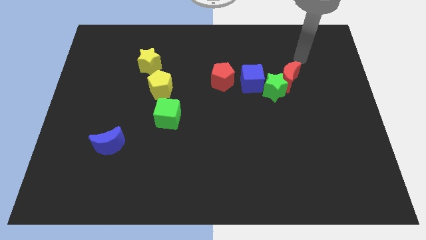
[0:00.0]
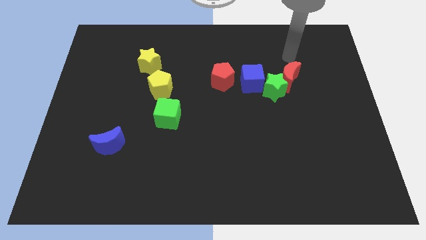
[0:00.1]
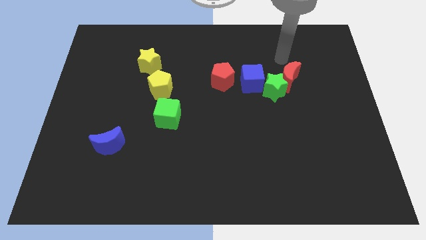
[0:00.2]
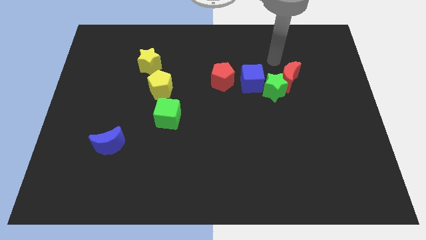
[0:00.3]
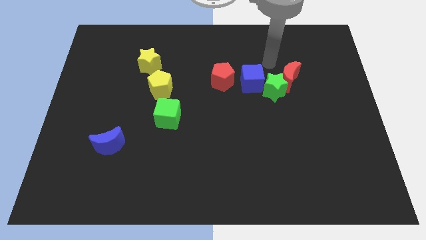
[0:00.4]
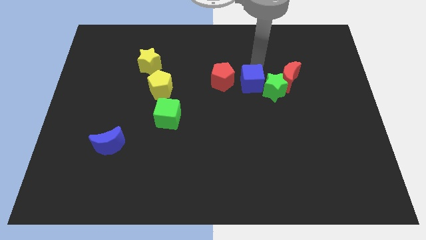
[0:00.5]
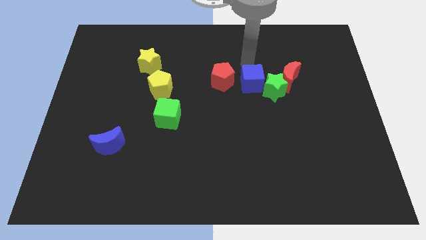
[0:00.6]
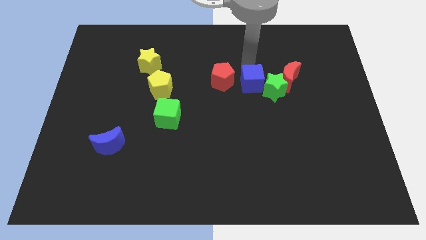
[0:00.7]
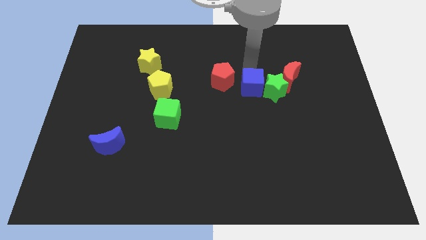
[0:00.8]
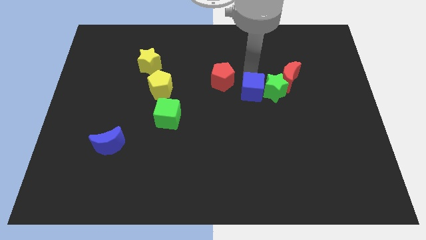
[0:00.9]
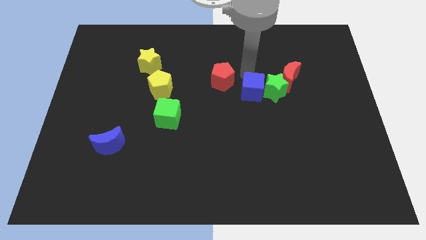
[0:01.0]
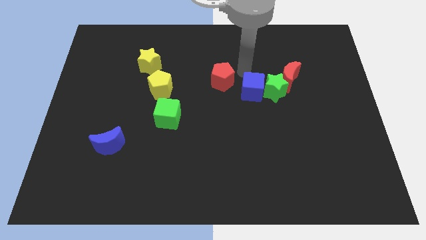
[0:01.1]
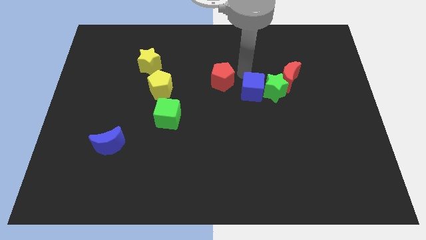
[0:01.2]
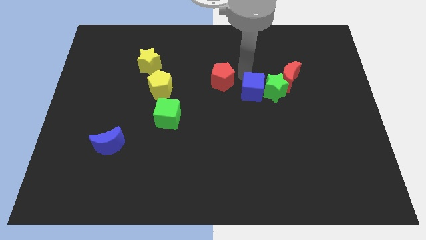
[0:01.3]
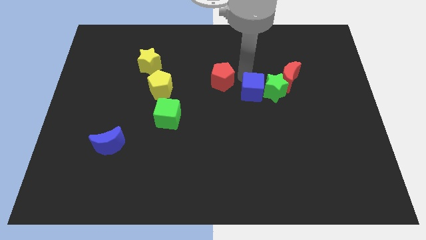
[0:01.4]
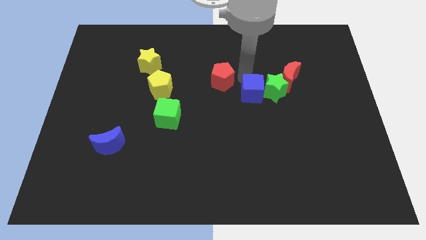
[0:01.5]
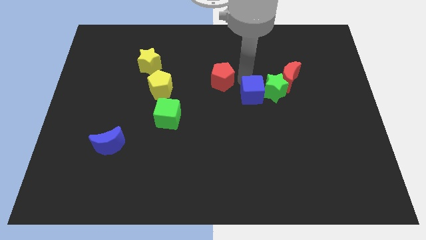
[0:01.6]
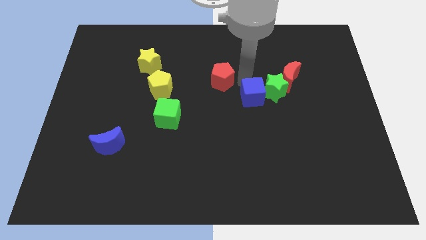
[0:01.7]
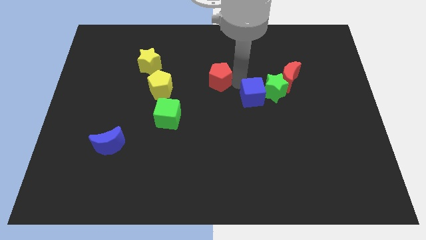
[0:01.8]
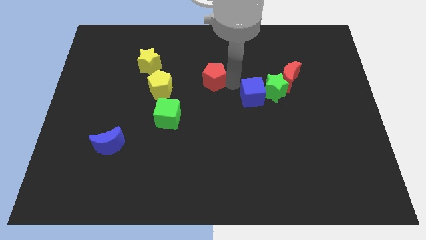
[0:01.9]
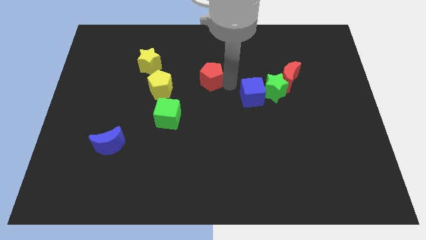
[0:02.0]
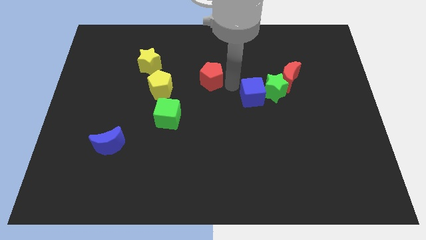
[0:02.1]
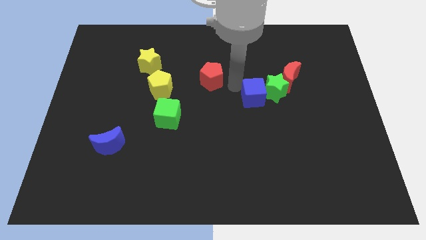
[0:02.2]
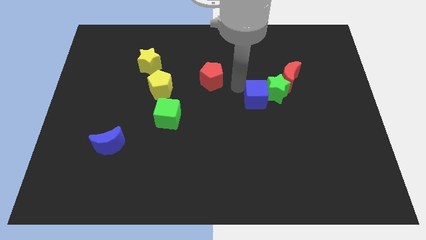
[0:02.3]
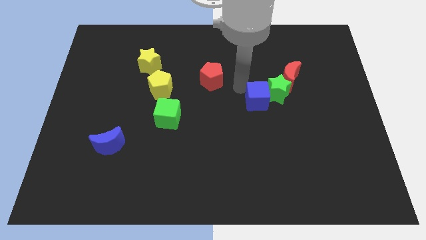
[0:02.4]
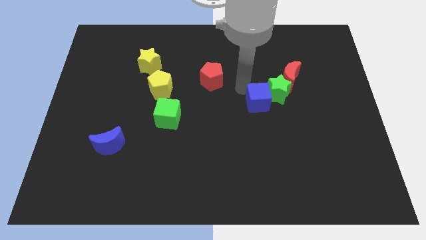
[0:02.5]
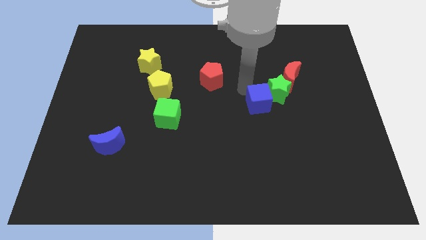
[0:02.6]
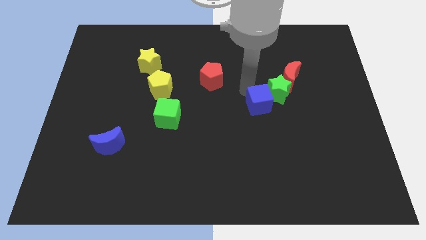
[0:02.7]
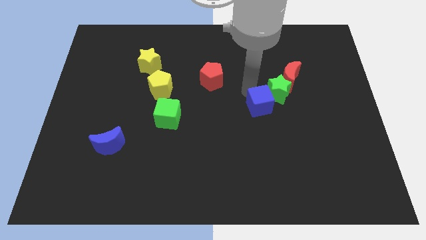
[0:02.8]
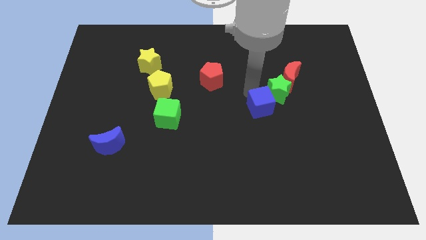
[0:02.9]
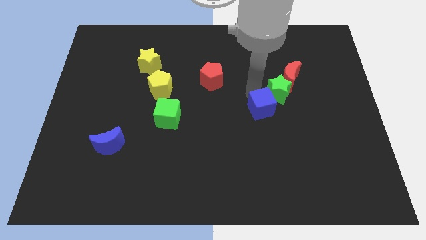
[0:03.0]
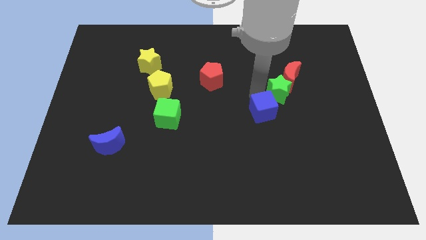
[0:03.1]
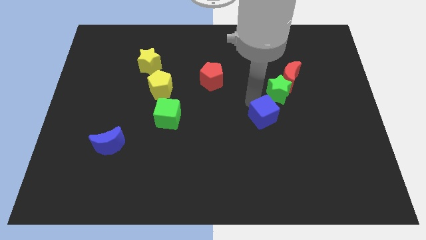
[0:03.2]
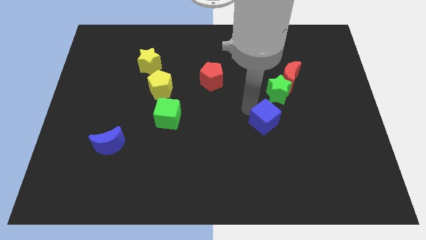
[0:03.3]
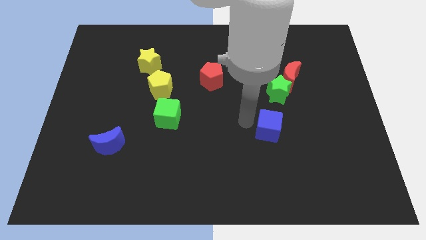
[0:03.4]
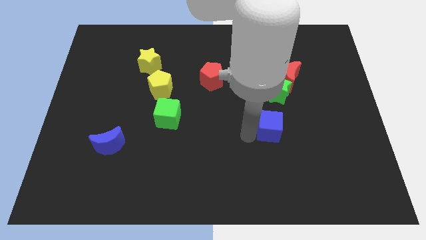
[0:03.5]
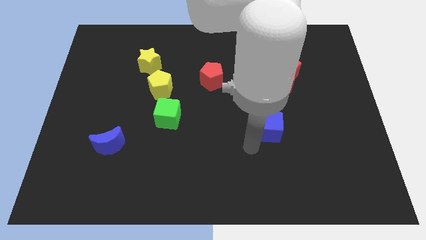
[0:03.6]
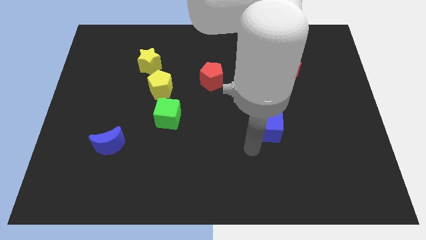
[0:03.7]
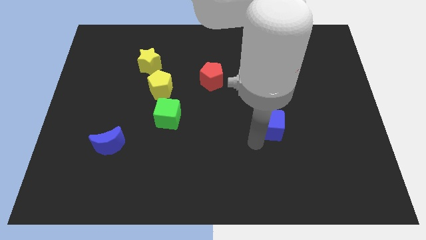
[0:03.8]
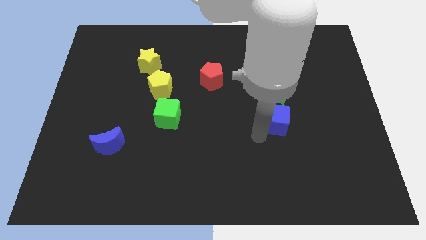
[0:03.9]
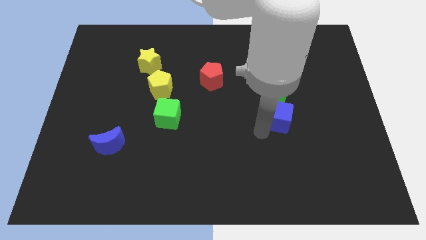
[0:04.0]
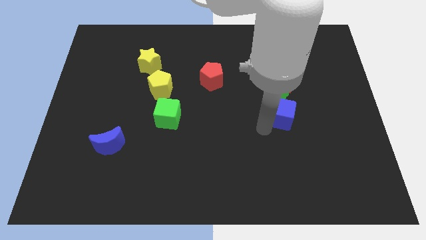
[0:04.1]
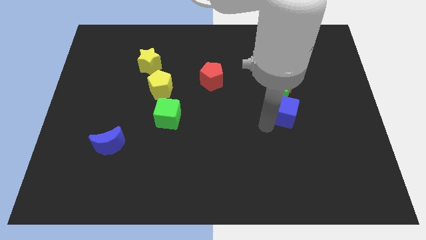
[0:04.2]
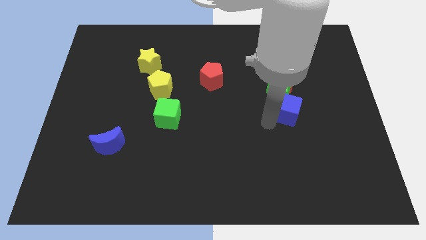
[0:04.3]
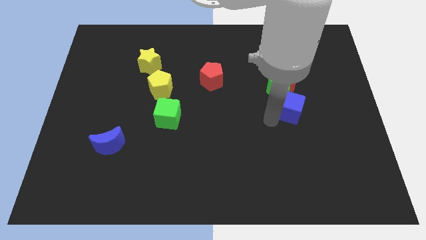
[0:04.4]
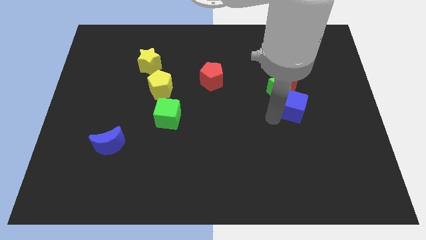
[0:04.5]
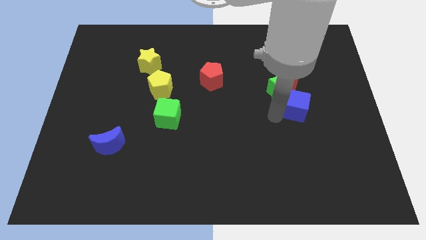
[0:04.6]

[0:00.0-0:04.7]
move the blue cube a bit right

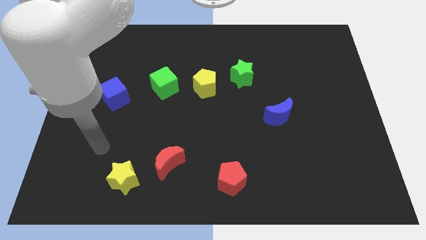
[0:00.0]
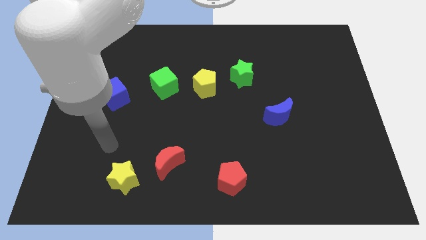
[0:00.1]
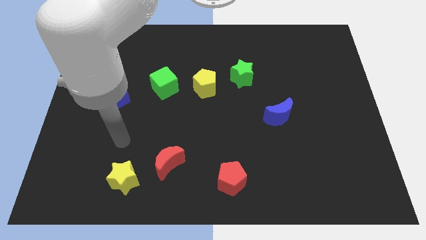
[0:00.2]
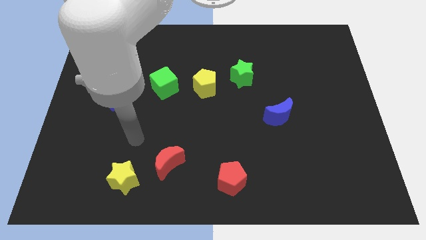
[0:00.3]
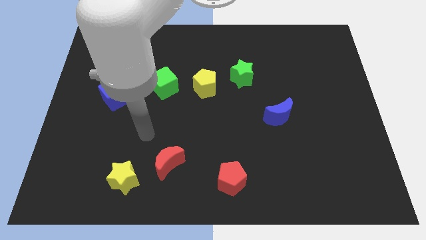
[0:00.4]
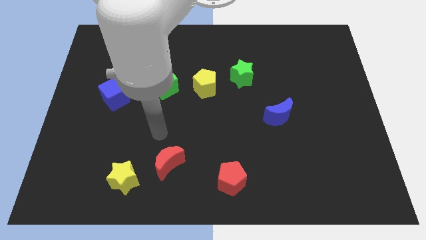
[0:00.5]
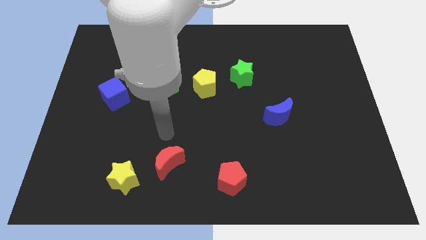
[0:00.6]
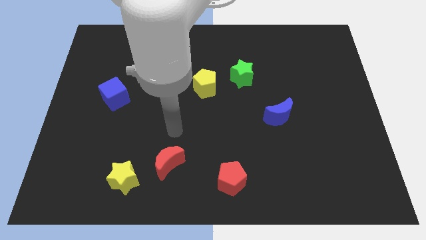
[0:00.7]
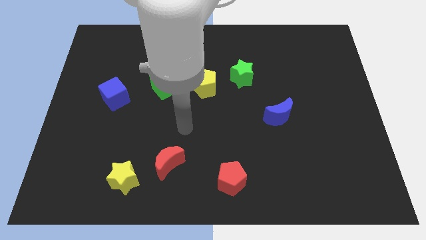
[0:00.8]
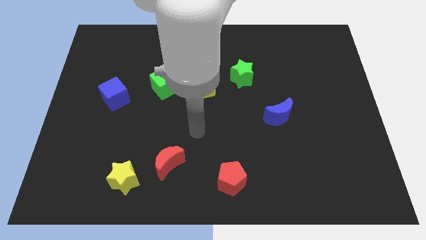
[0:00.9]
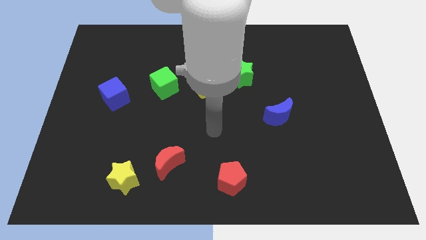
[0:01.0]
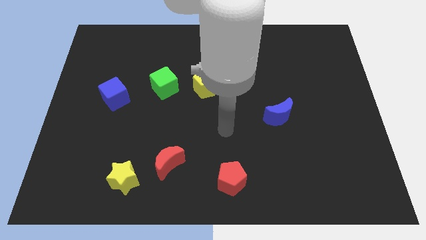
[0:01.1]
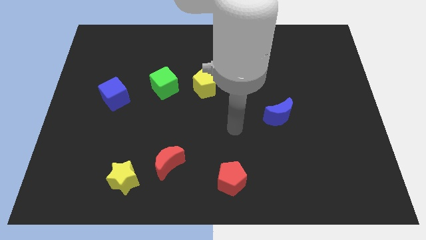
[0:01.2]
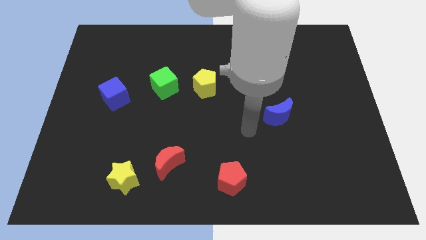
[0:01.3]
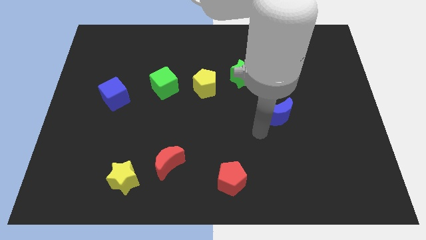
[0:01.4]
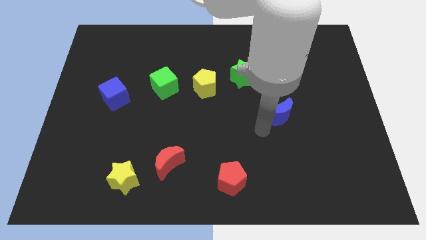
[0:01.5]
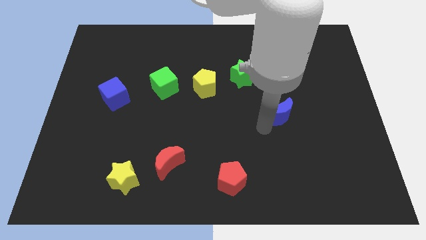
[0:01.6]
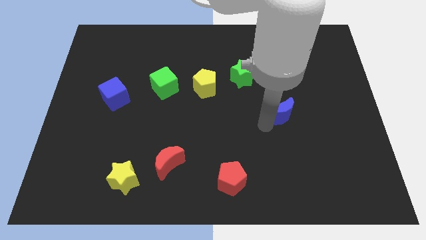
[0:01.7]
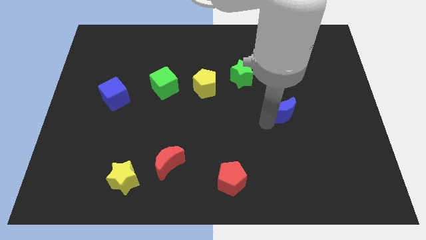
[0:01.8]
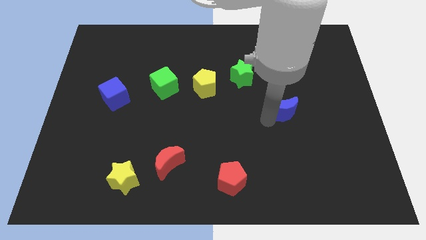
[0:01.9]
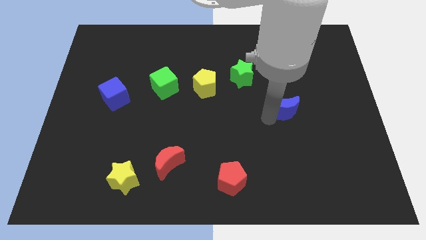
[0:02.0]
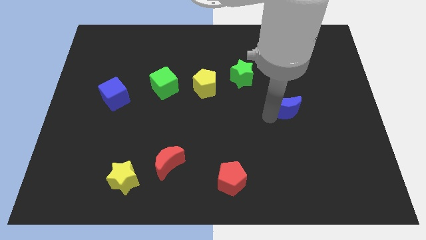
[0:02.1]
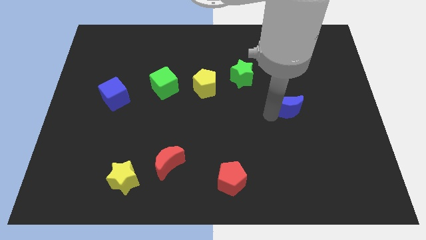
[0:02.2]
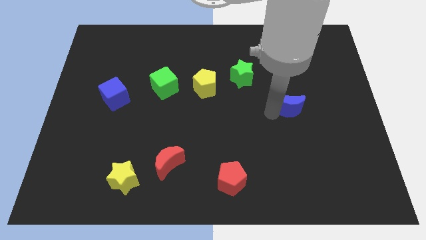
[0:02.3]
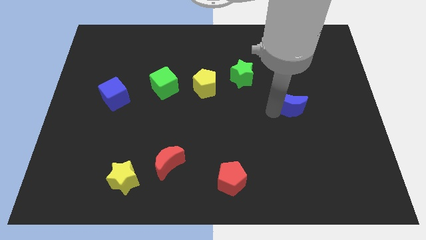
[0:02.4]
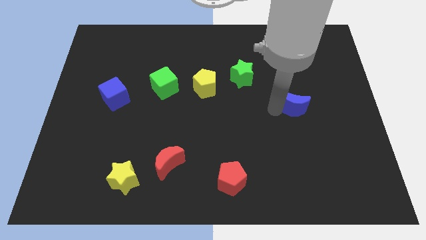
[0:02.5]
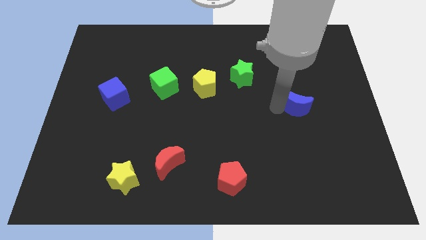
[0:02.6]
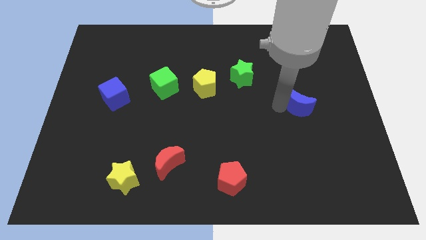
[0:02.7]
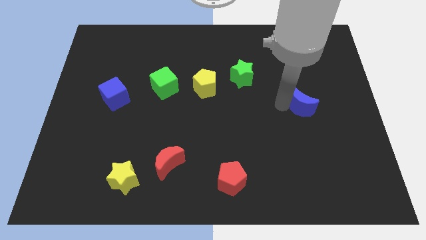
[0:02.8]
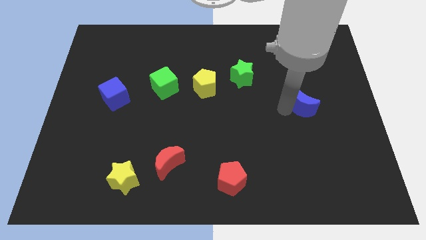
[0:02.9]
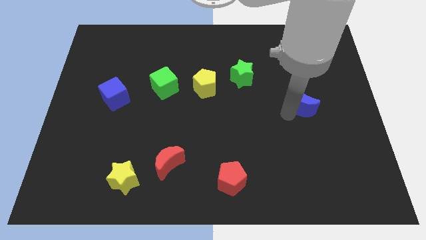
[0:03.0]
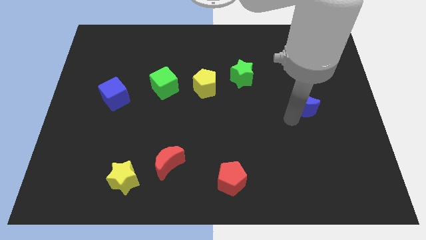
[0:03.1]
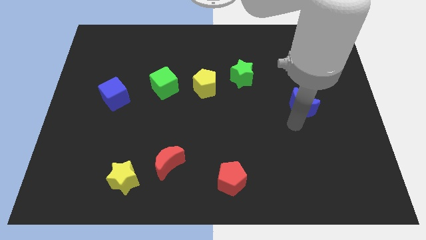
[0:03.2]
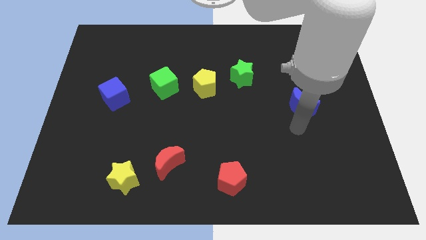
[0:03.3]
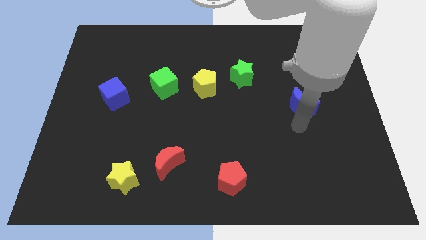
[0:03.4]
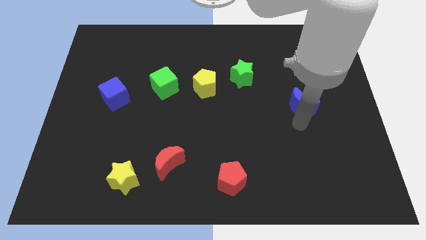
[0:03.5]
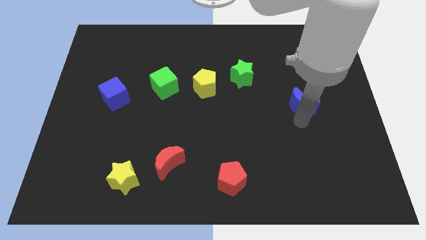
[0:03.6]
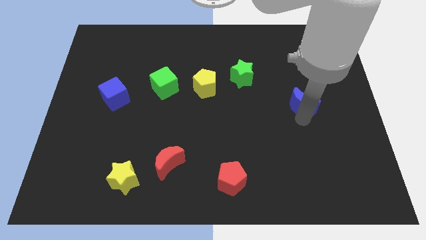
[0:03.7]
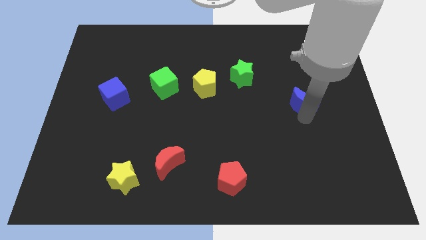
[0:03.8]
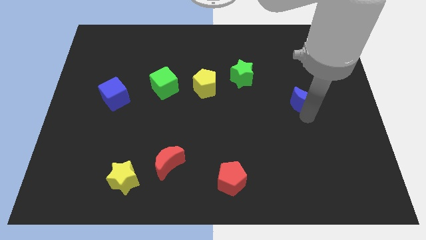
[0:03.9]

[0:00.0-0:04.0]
move the blue moon a little bit up and to the right
